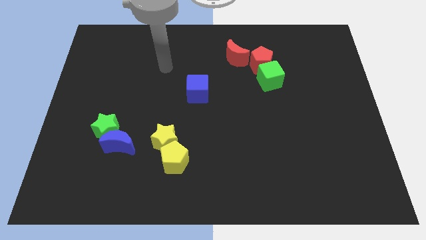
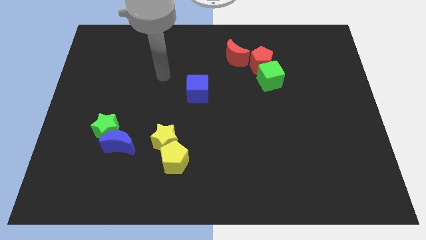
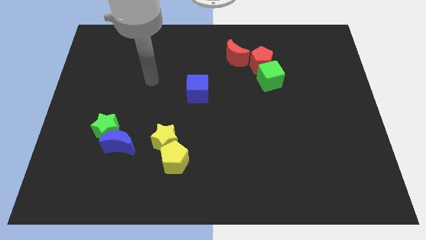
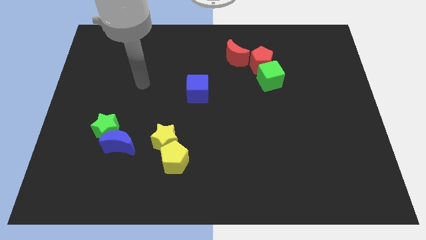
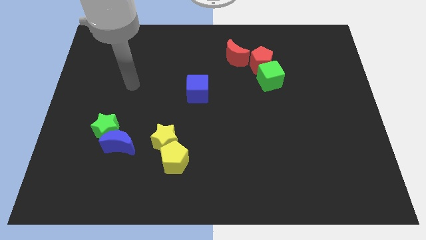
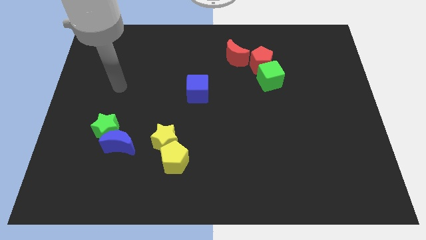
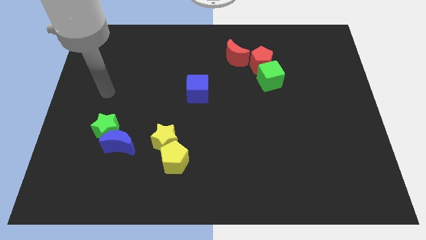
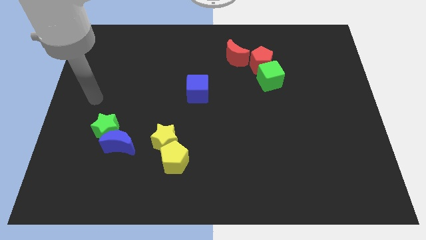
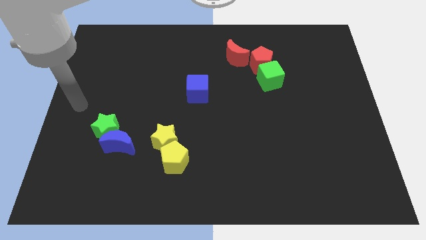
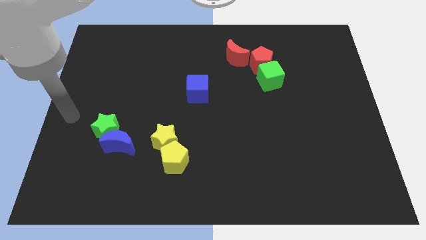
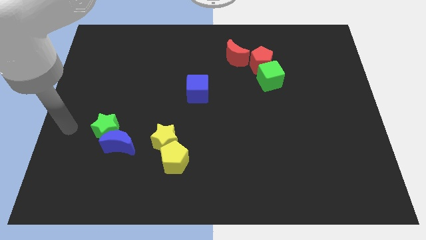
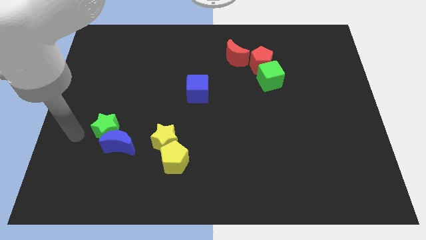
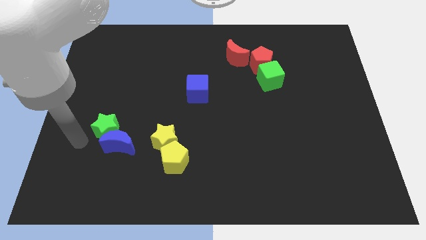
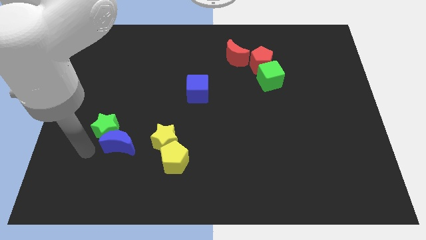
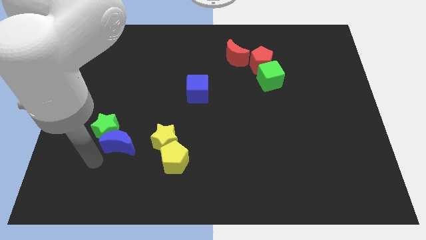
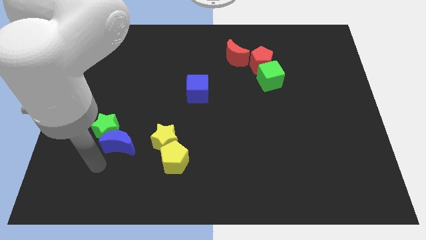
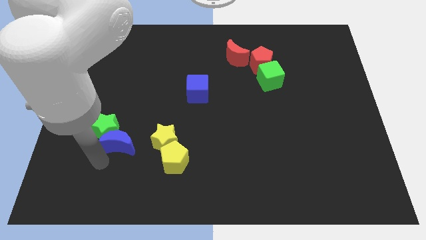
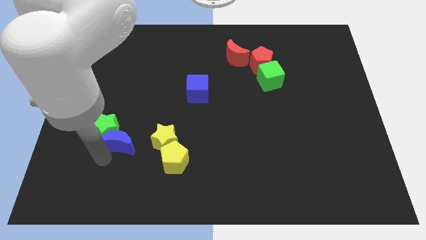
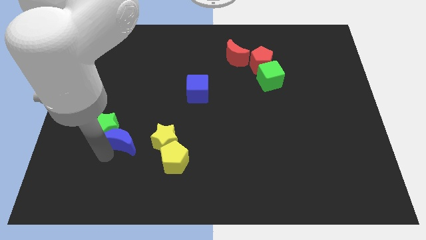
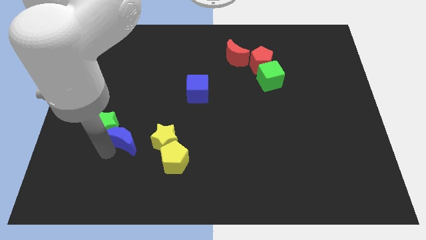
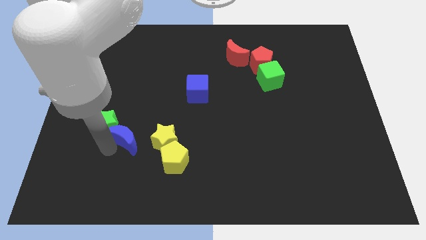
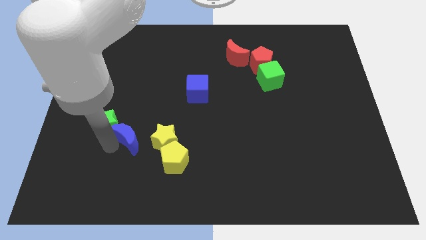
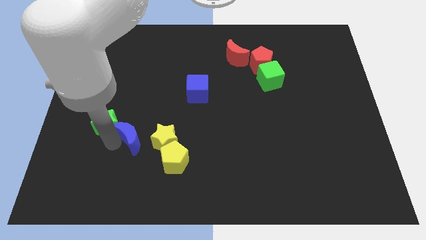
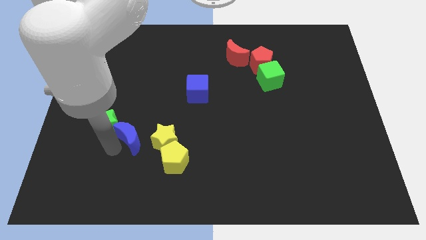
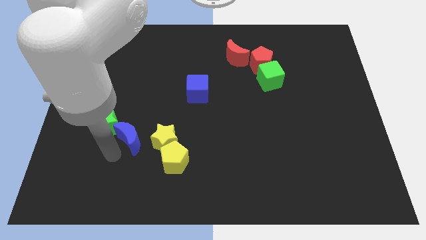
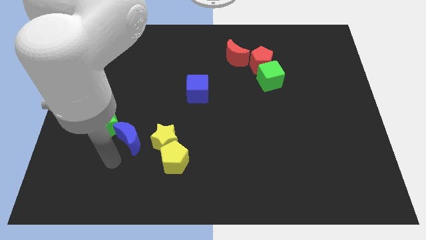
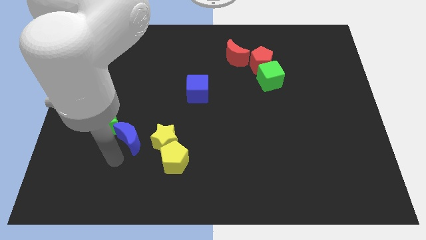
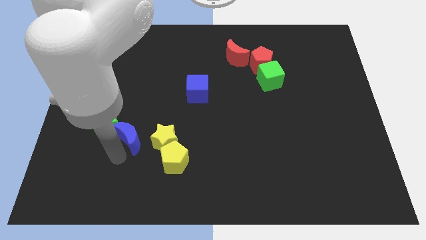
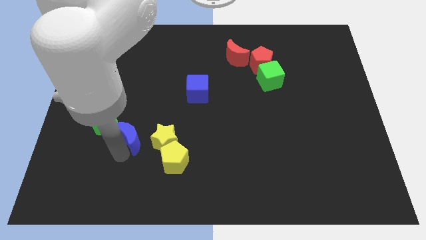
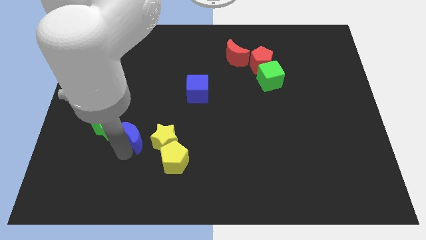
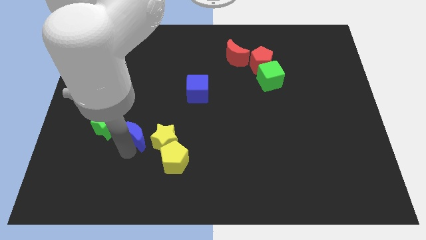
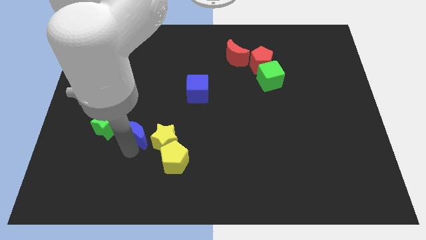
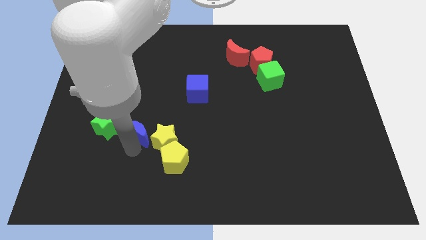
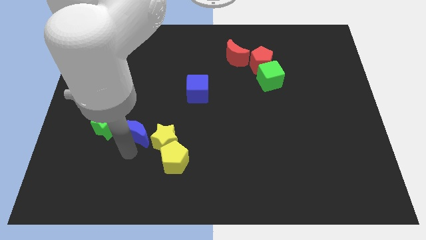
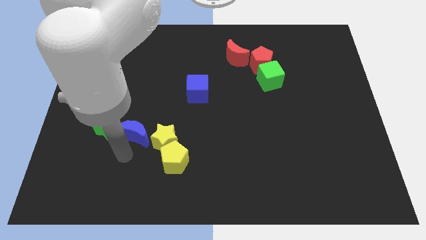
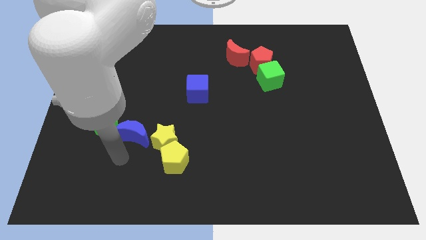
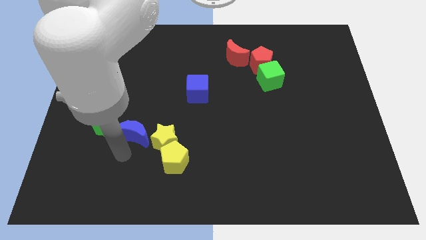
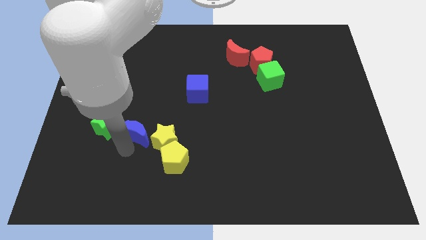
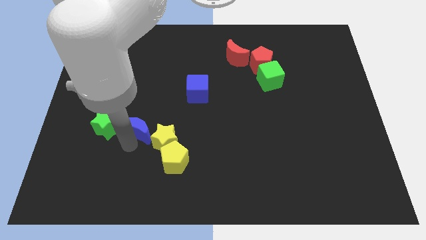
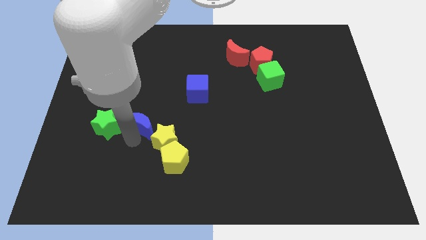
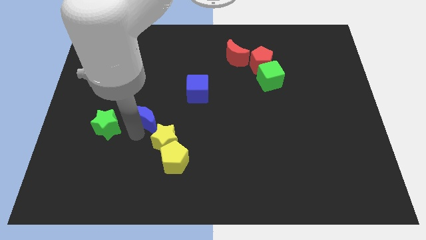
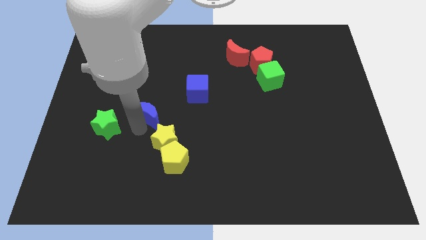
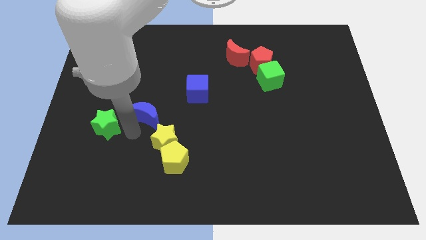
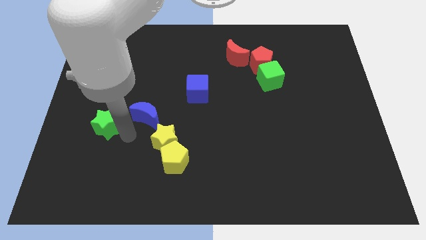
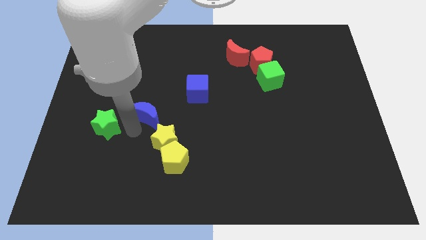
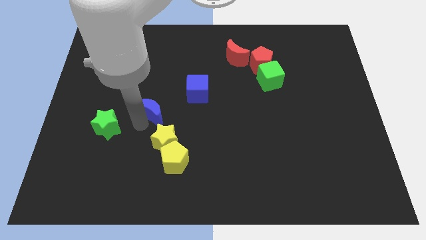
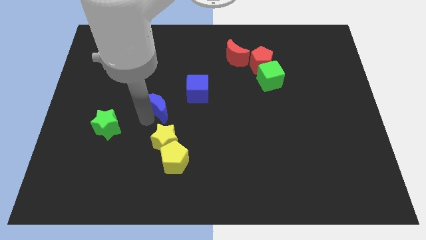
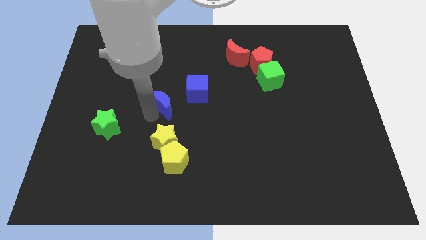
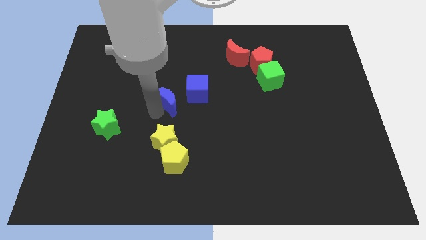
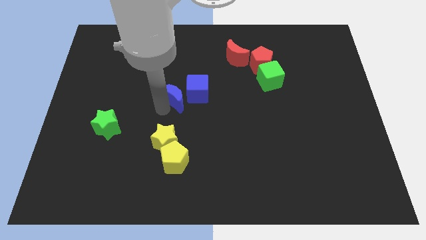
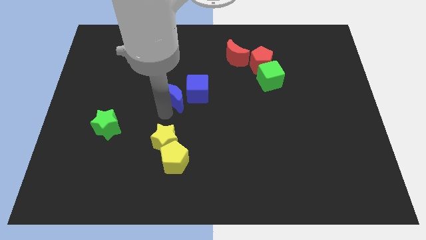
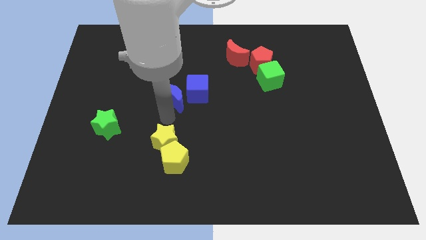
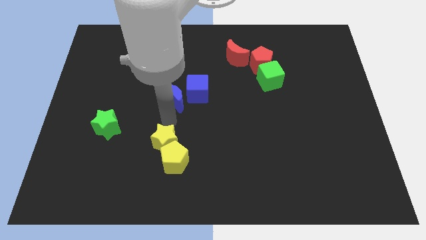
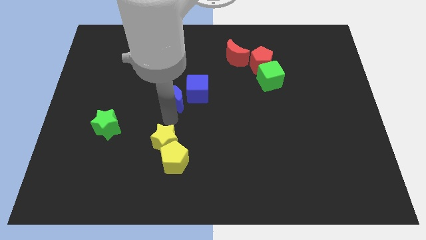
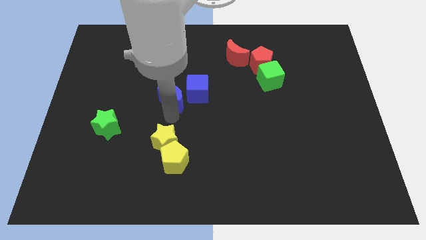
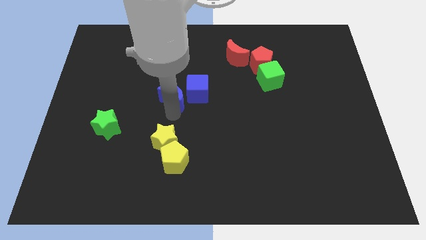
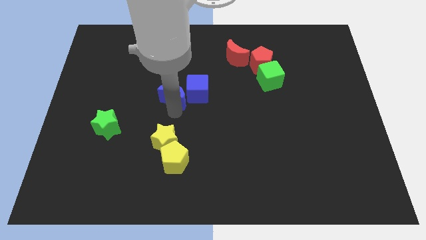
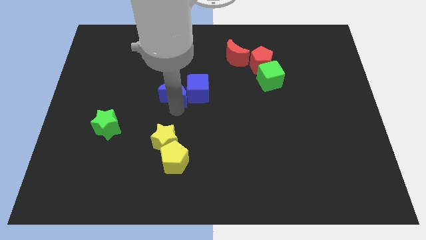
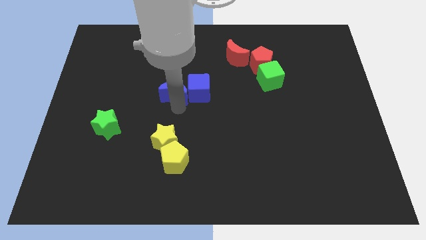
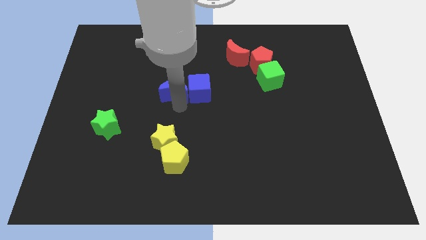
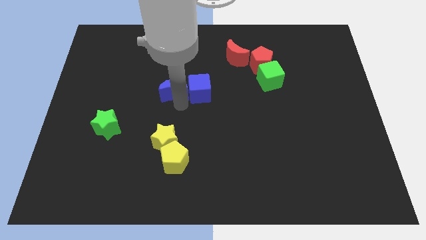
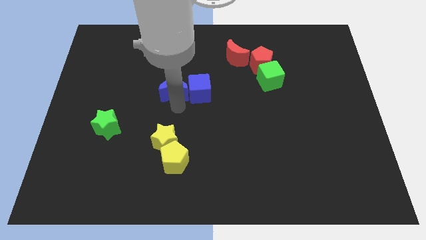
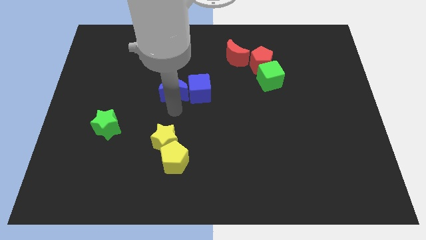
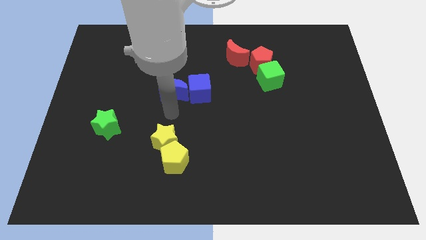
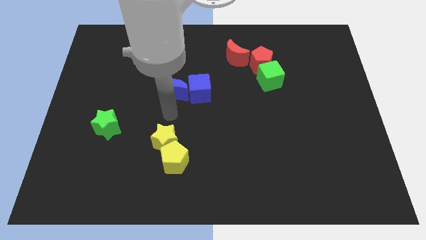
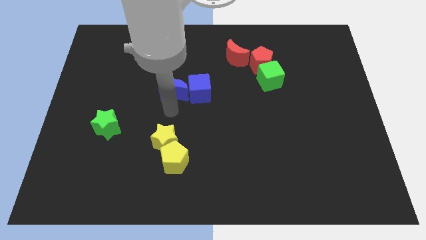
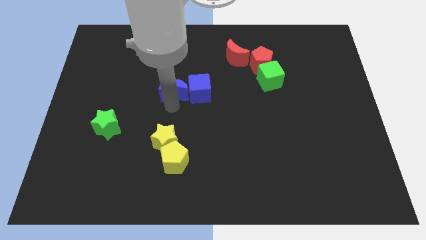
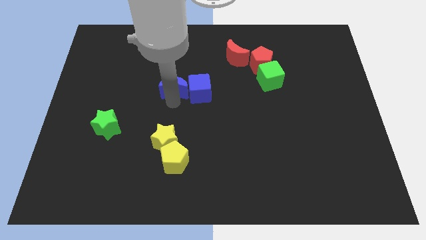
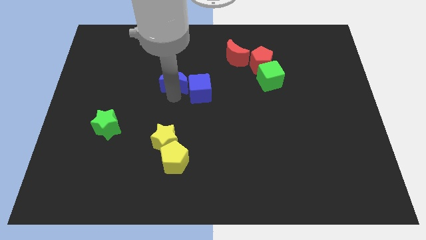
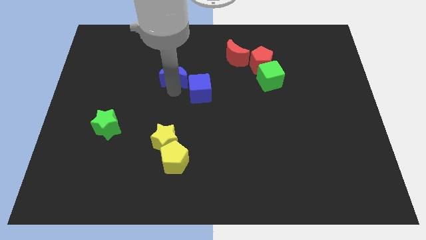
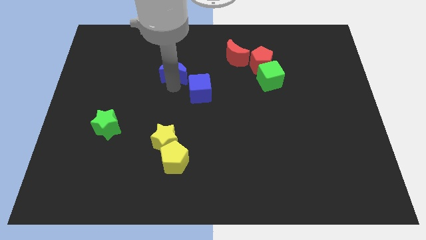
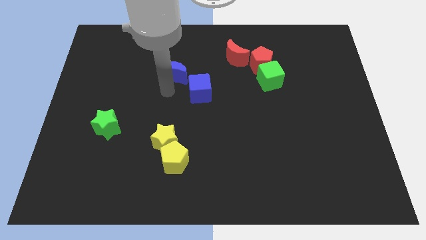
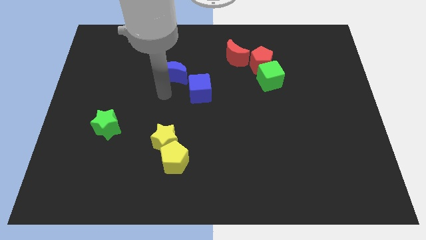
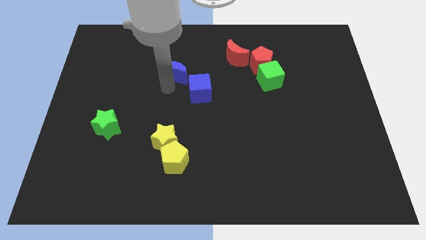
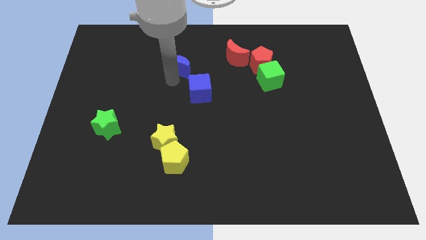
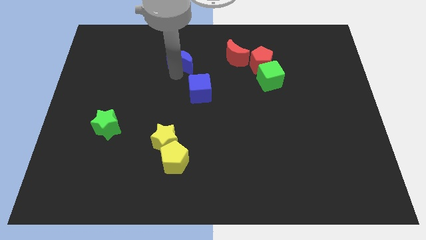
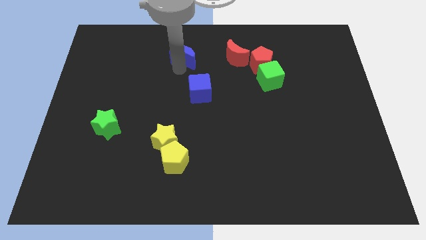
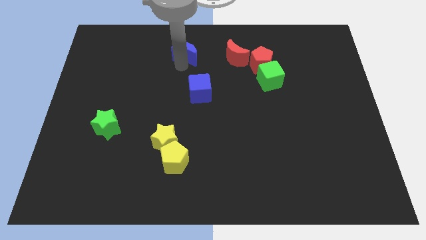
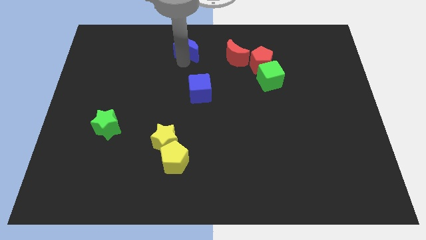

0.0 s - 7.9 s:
slide the blue moon to the top
